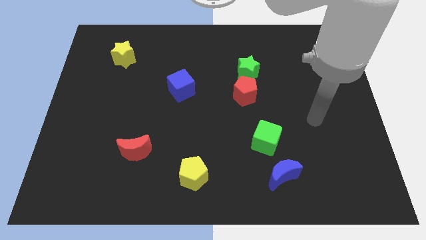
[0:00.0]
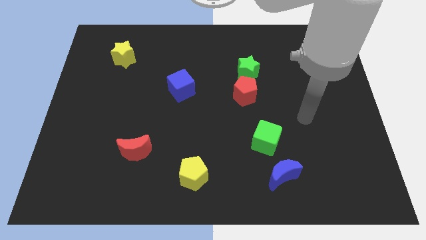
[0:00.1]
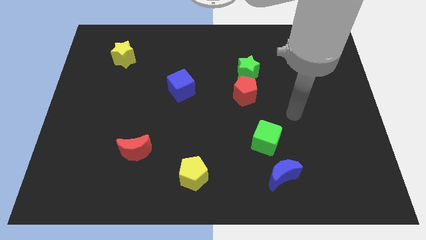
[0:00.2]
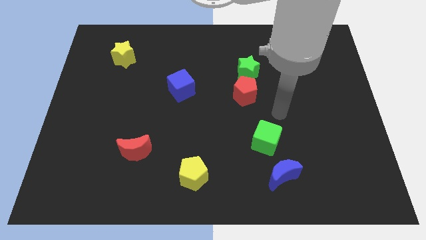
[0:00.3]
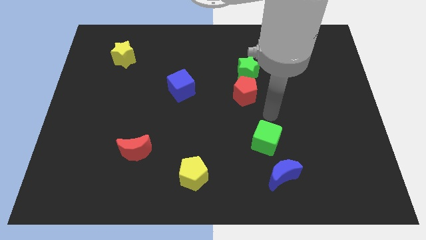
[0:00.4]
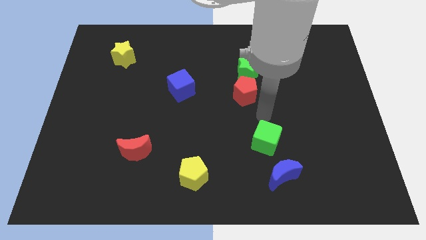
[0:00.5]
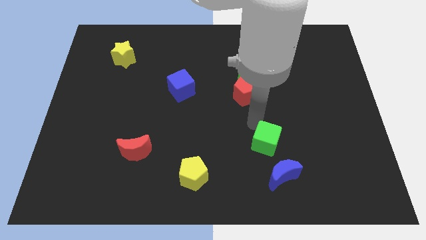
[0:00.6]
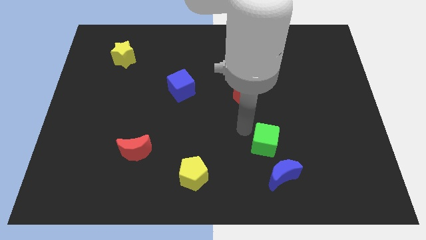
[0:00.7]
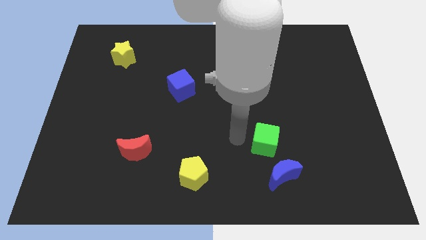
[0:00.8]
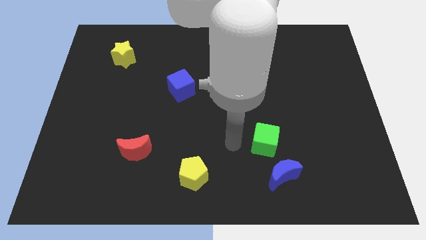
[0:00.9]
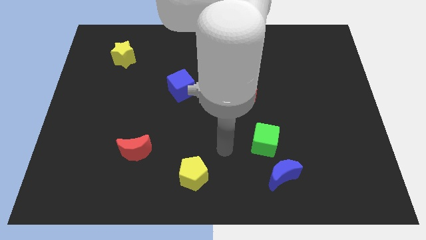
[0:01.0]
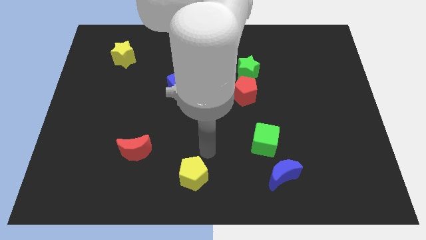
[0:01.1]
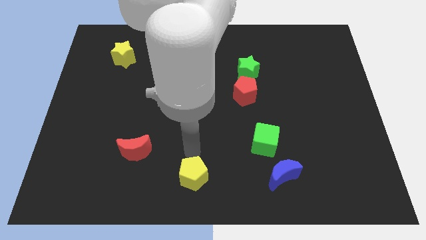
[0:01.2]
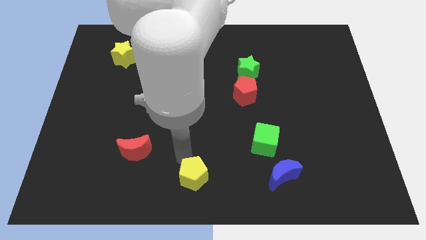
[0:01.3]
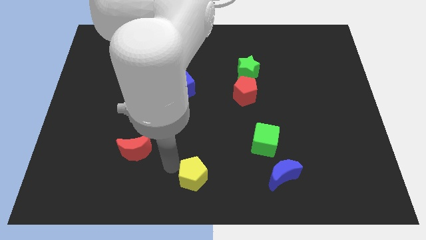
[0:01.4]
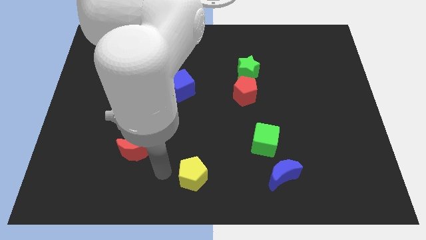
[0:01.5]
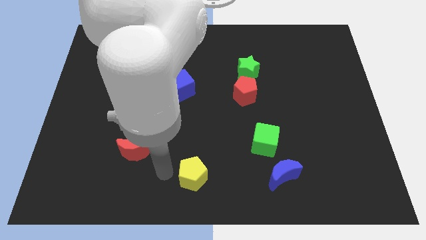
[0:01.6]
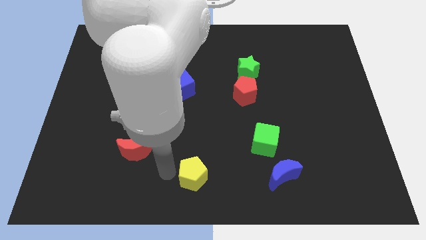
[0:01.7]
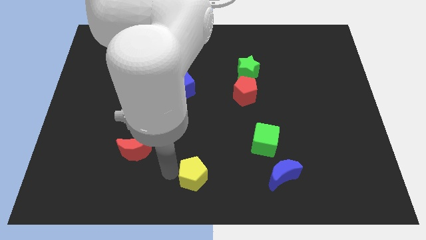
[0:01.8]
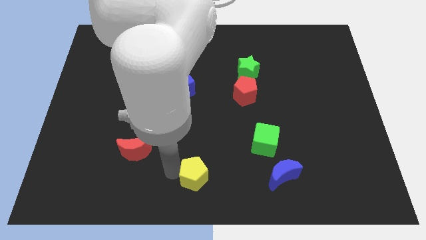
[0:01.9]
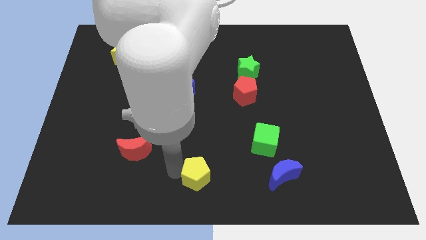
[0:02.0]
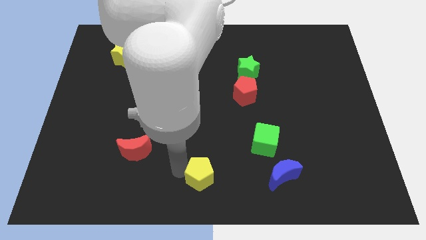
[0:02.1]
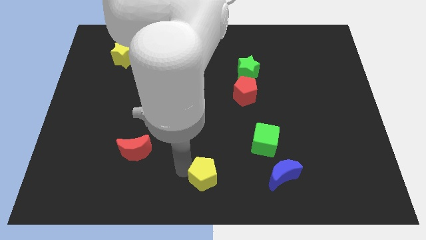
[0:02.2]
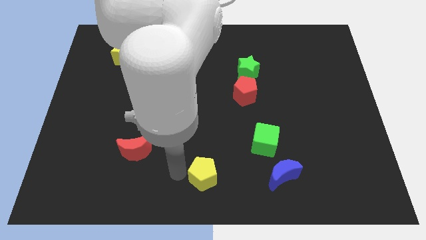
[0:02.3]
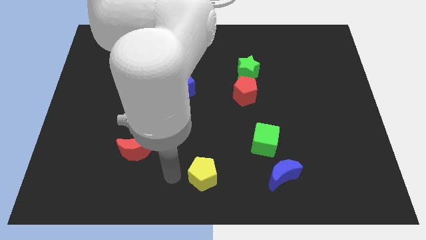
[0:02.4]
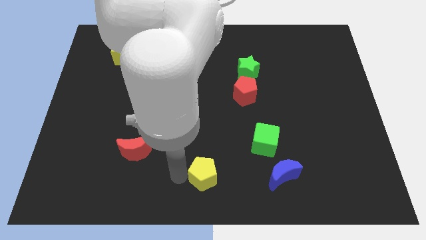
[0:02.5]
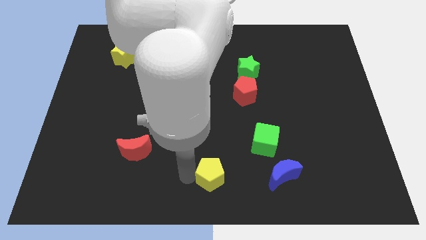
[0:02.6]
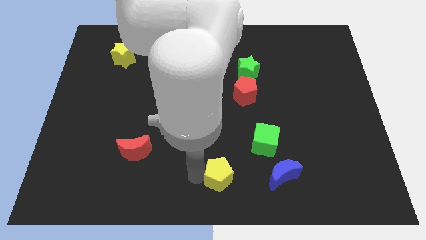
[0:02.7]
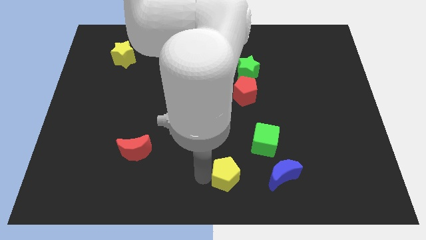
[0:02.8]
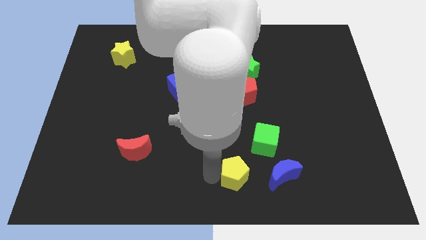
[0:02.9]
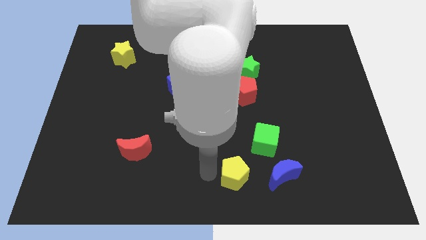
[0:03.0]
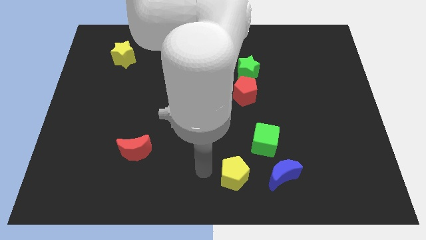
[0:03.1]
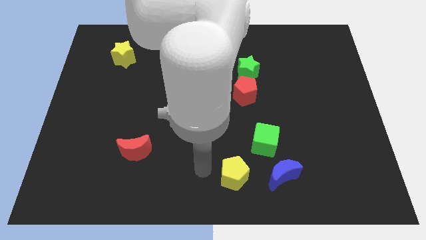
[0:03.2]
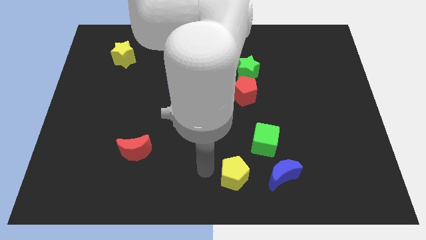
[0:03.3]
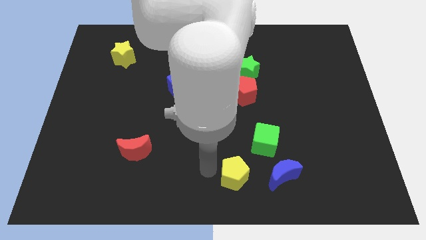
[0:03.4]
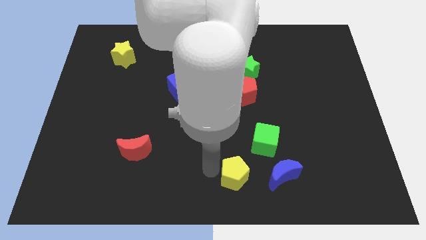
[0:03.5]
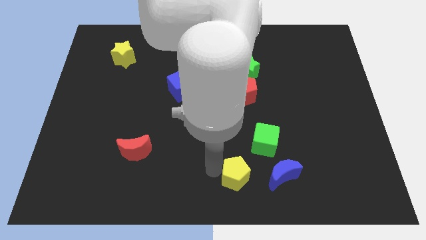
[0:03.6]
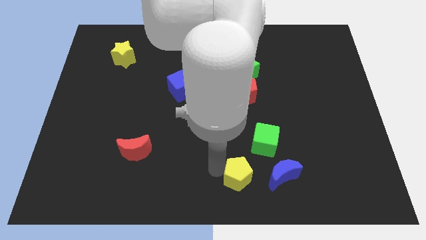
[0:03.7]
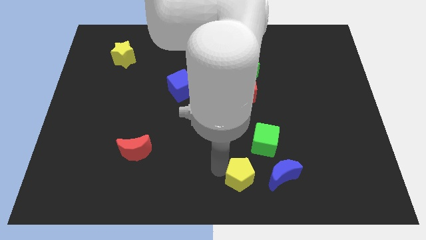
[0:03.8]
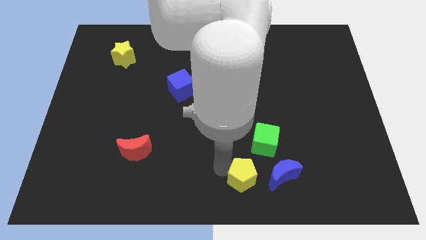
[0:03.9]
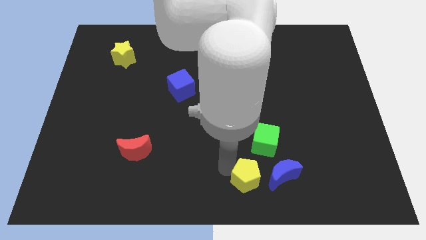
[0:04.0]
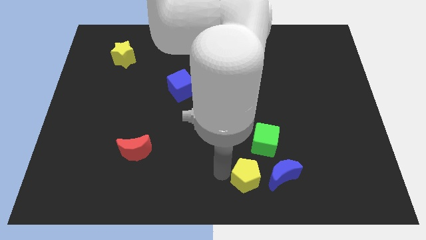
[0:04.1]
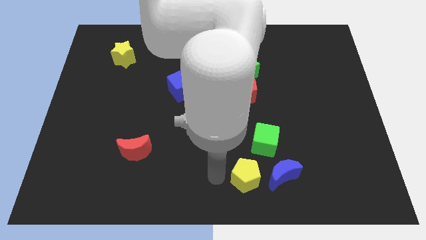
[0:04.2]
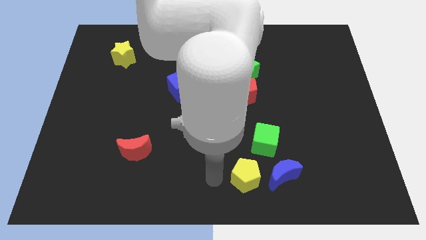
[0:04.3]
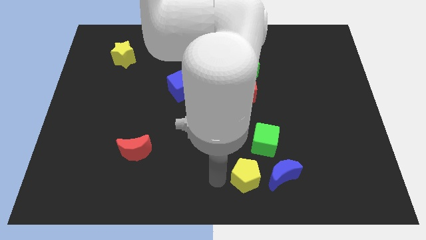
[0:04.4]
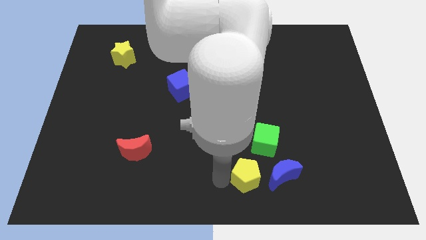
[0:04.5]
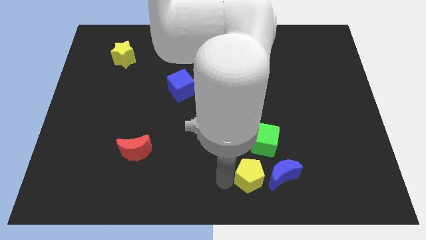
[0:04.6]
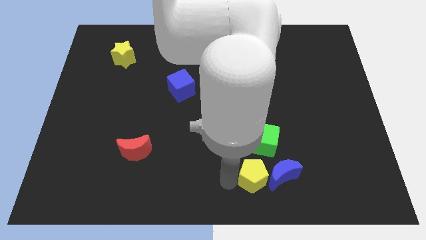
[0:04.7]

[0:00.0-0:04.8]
slide the yellow pentagon towards the blue moon

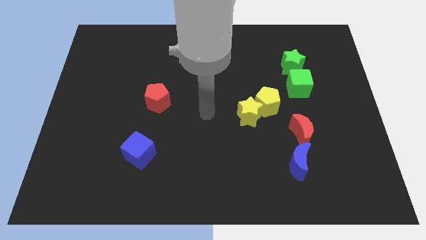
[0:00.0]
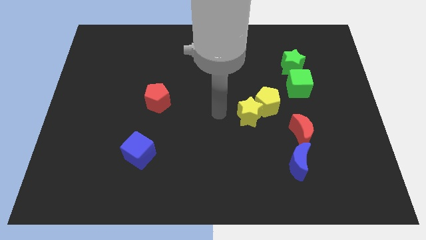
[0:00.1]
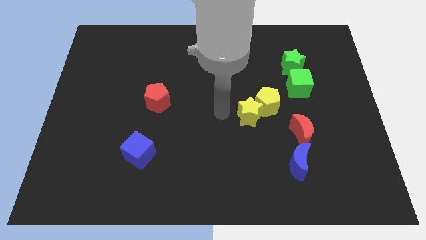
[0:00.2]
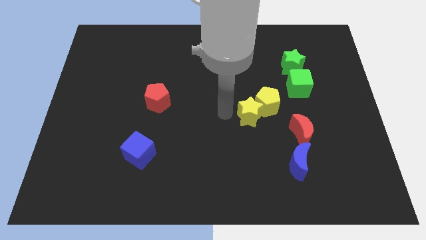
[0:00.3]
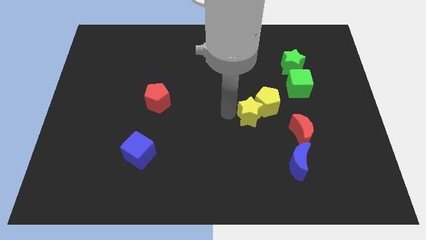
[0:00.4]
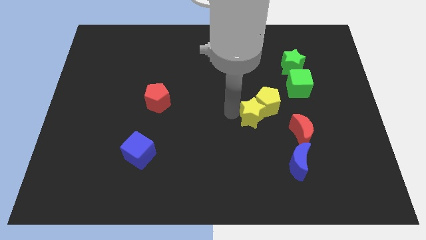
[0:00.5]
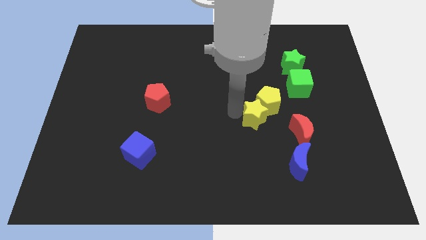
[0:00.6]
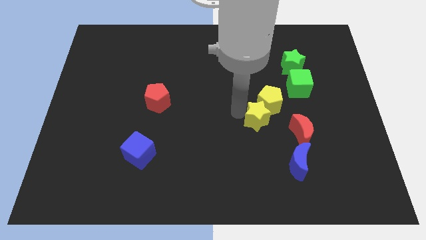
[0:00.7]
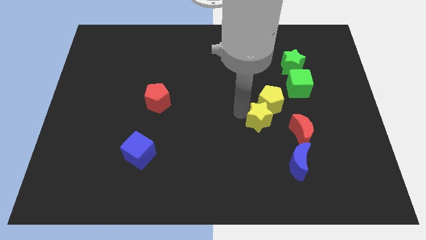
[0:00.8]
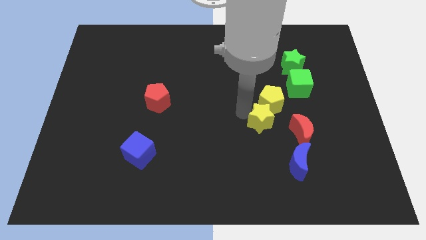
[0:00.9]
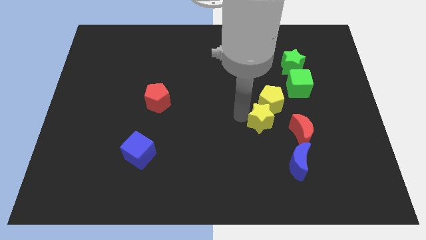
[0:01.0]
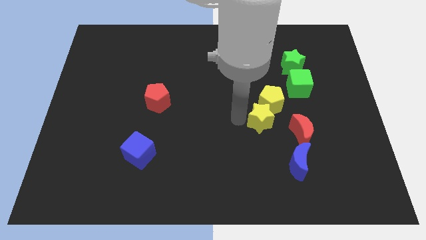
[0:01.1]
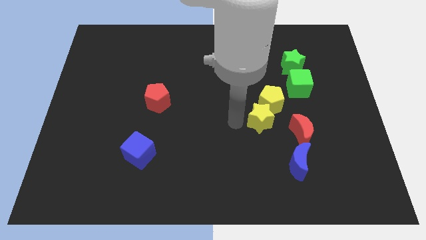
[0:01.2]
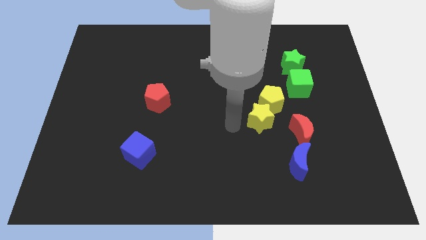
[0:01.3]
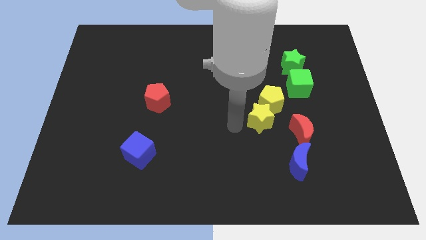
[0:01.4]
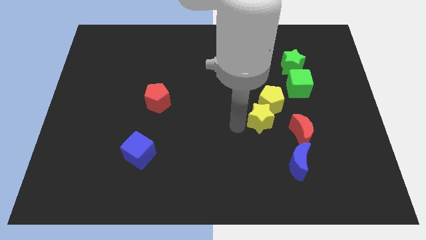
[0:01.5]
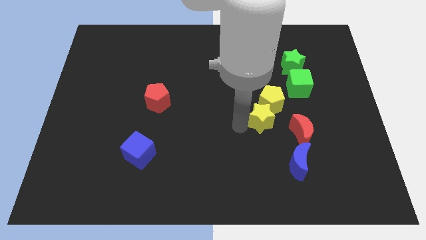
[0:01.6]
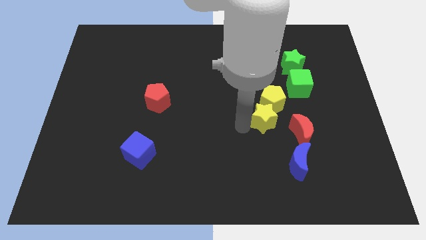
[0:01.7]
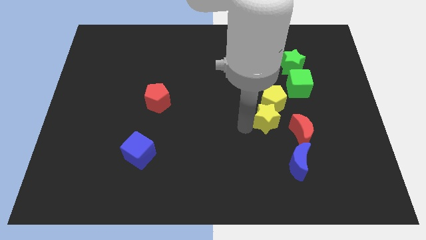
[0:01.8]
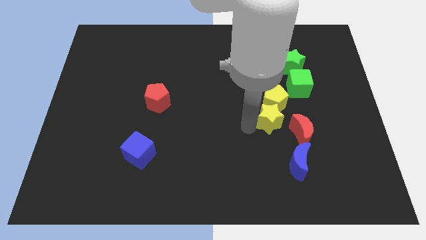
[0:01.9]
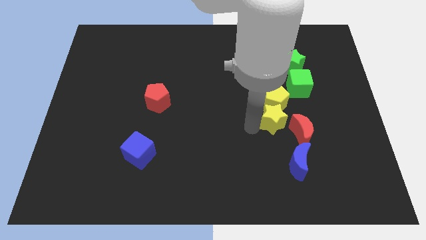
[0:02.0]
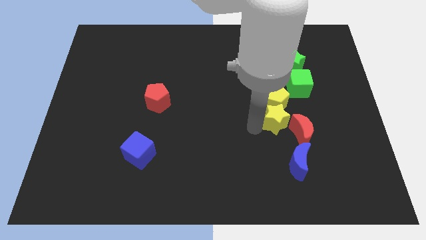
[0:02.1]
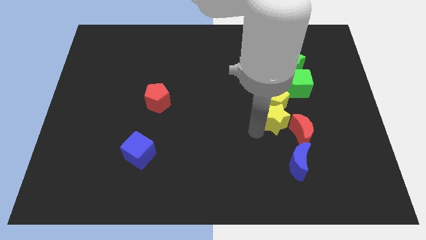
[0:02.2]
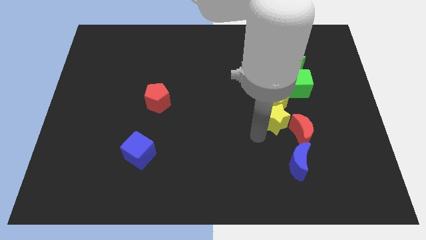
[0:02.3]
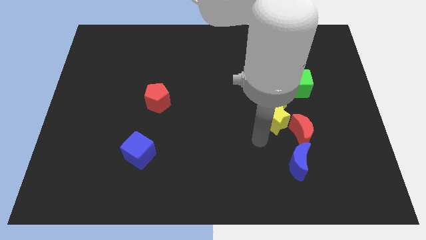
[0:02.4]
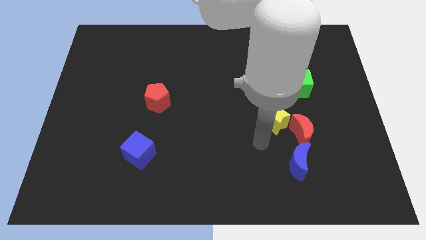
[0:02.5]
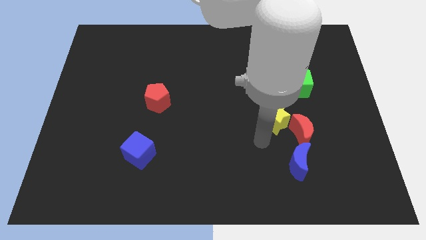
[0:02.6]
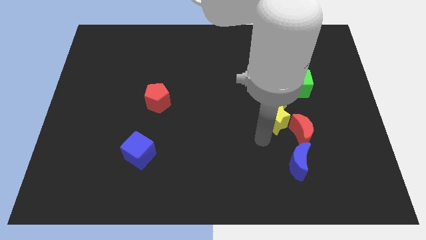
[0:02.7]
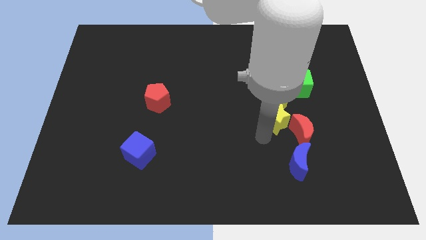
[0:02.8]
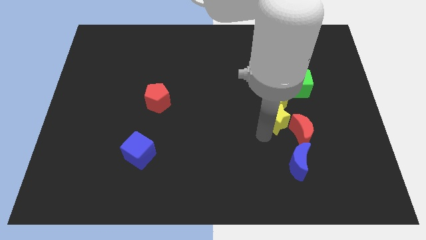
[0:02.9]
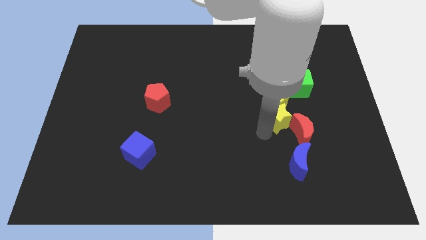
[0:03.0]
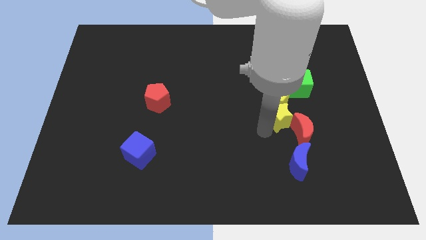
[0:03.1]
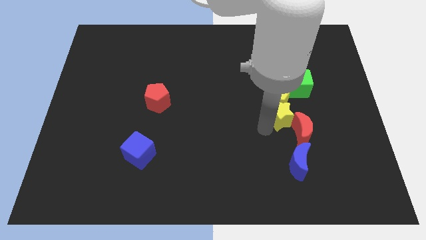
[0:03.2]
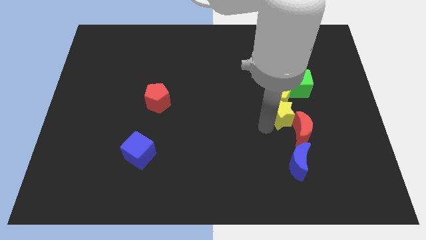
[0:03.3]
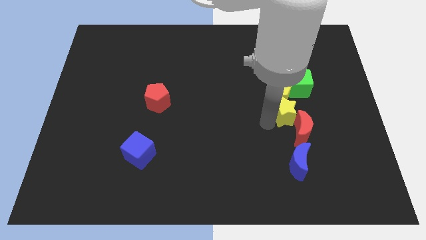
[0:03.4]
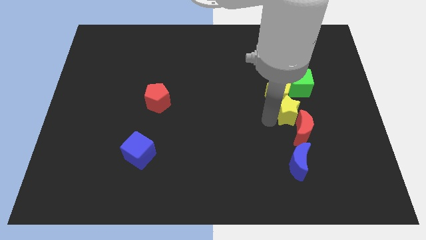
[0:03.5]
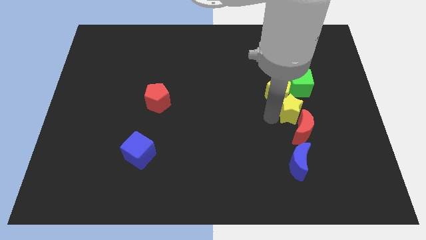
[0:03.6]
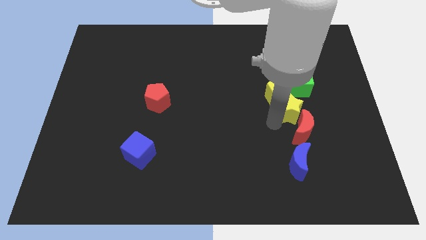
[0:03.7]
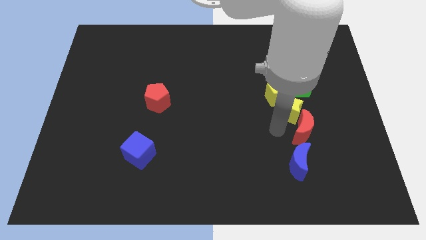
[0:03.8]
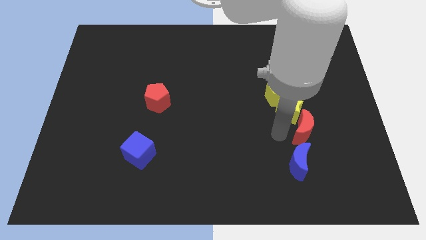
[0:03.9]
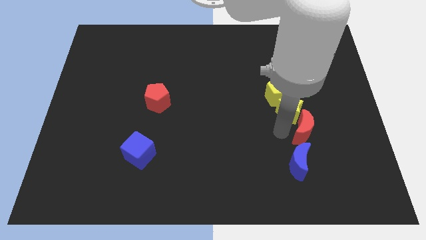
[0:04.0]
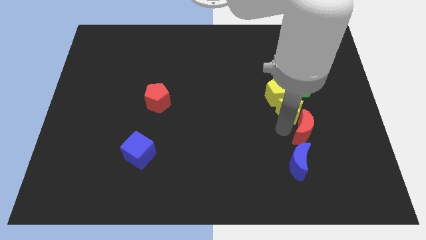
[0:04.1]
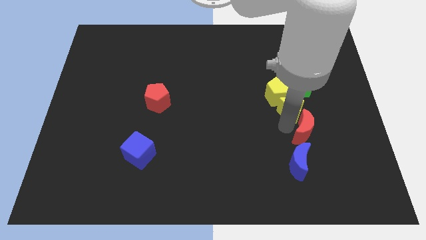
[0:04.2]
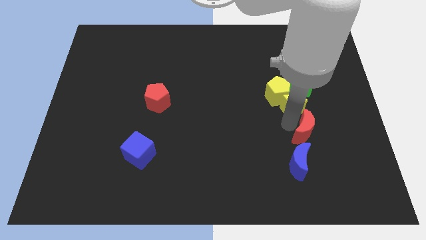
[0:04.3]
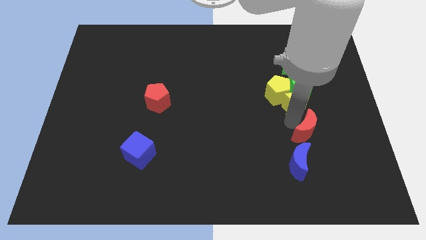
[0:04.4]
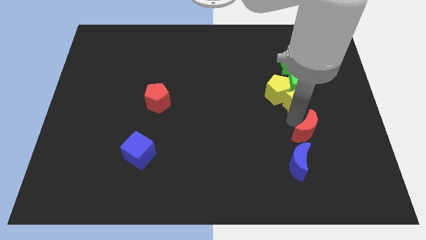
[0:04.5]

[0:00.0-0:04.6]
slide the yellow star to the green cube
